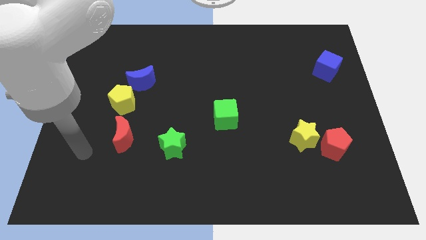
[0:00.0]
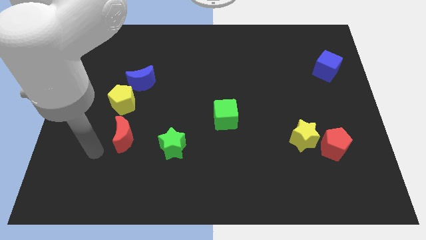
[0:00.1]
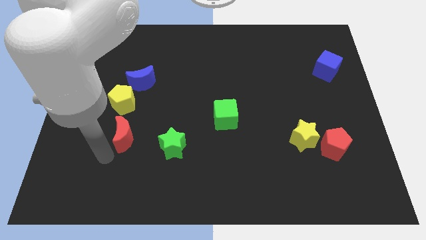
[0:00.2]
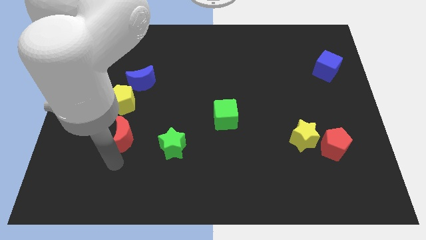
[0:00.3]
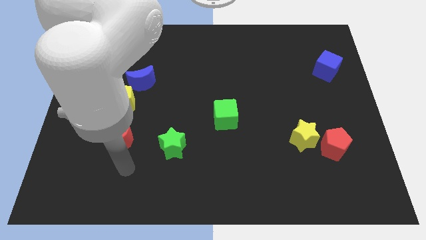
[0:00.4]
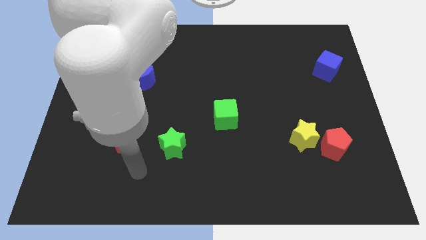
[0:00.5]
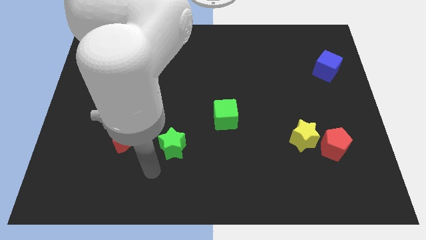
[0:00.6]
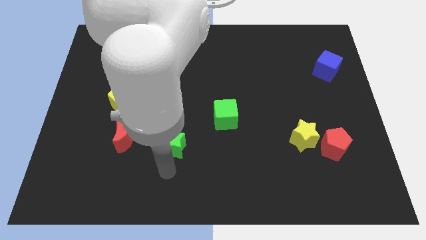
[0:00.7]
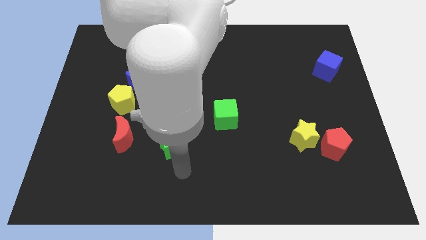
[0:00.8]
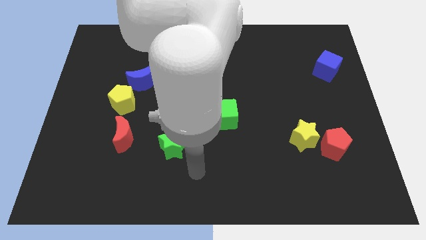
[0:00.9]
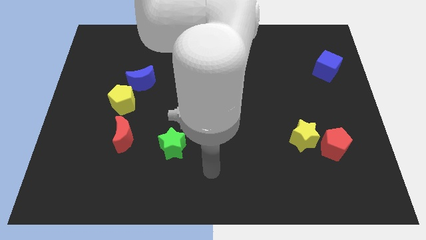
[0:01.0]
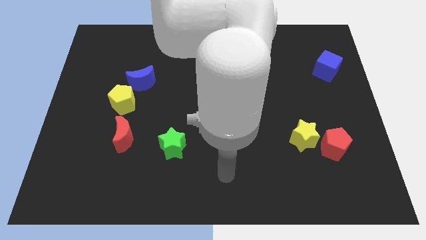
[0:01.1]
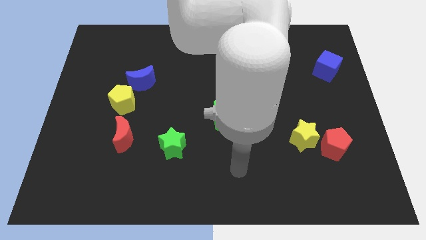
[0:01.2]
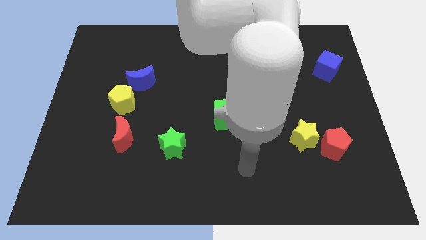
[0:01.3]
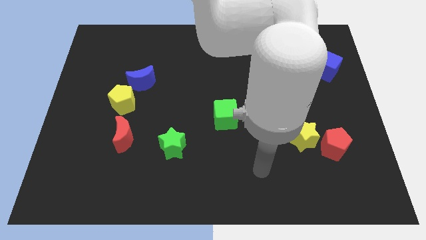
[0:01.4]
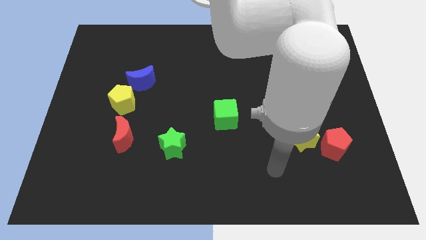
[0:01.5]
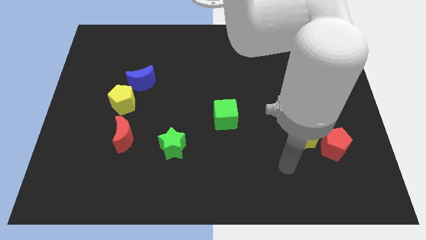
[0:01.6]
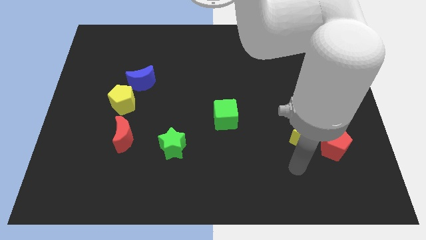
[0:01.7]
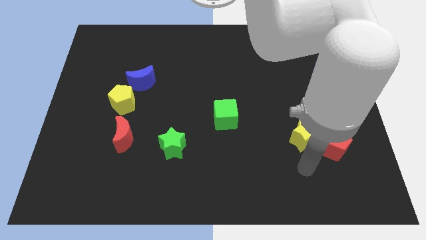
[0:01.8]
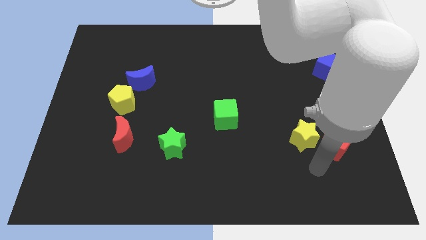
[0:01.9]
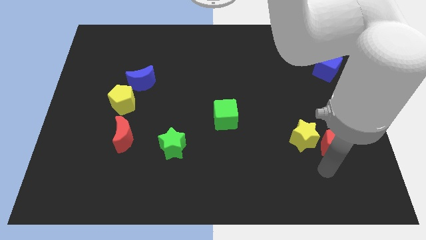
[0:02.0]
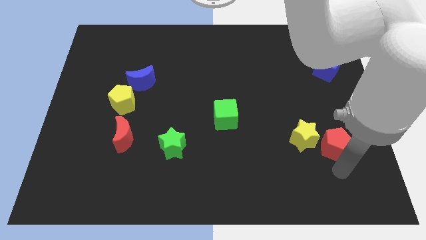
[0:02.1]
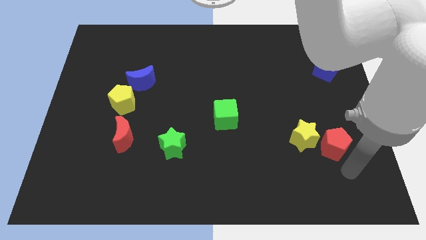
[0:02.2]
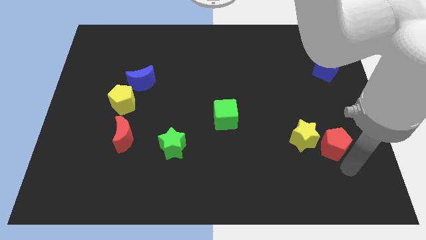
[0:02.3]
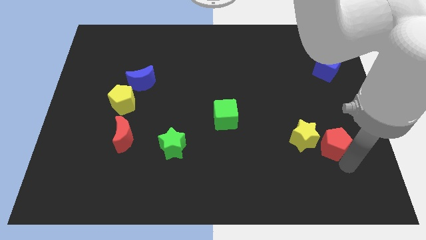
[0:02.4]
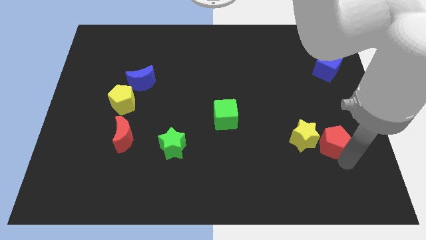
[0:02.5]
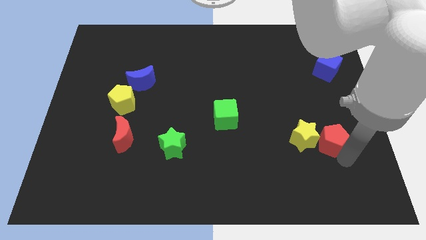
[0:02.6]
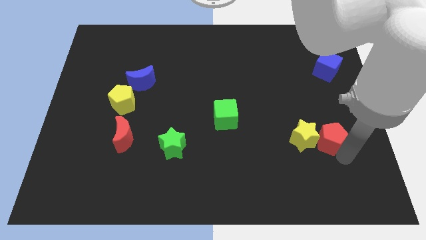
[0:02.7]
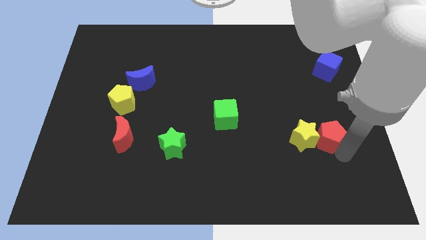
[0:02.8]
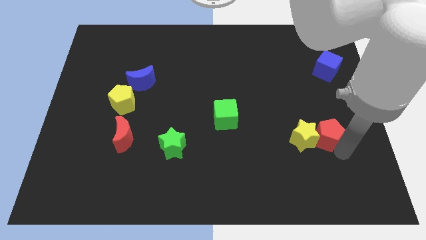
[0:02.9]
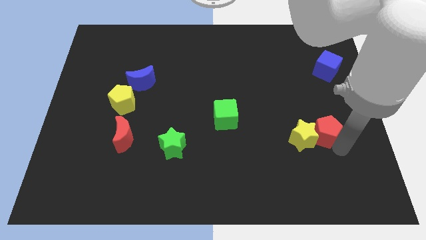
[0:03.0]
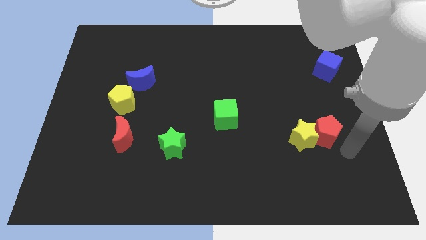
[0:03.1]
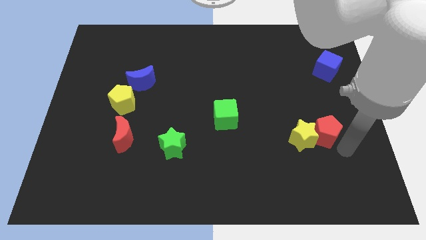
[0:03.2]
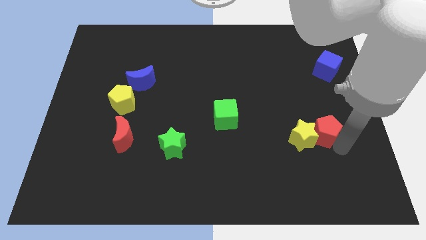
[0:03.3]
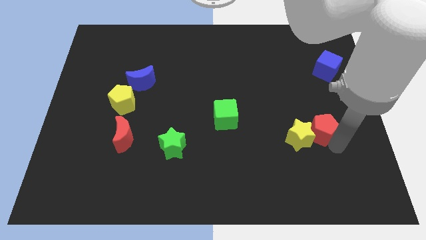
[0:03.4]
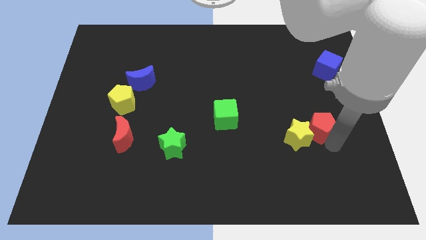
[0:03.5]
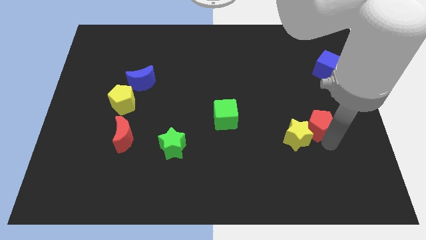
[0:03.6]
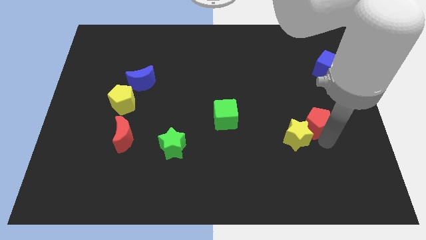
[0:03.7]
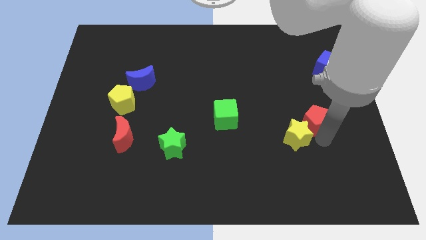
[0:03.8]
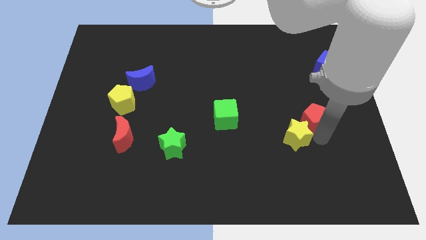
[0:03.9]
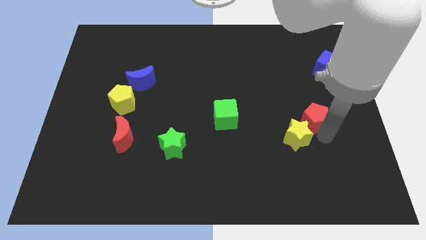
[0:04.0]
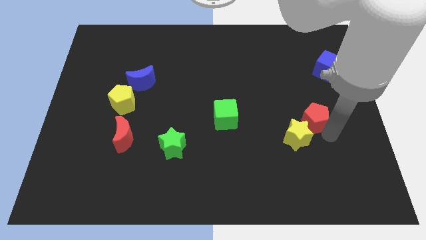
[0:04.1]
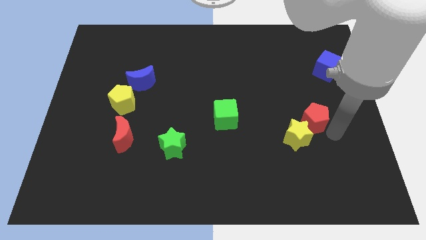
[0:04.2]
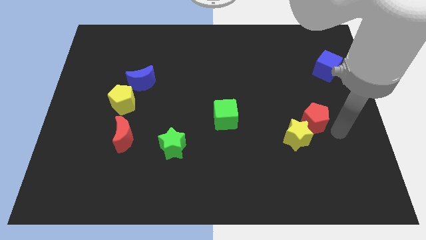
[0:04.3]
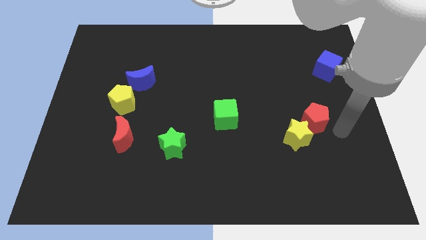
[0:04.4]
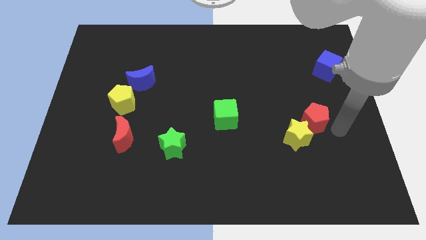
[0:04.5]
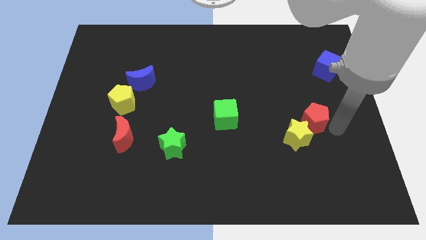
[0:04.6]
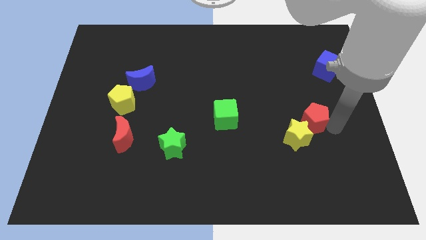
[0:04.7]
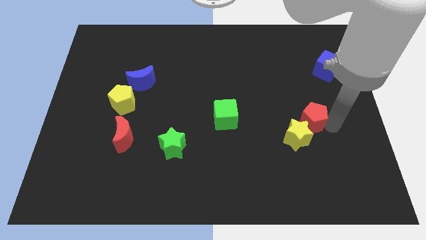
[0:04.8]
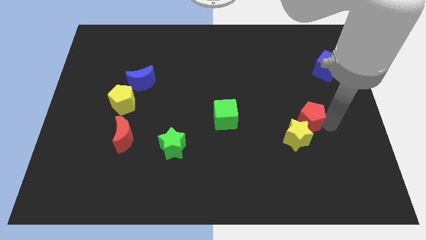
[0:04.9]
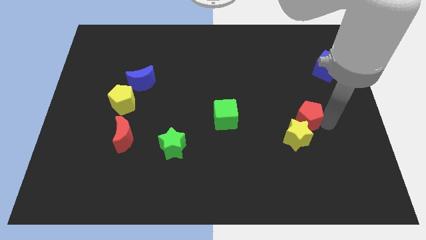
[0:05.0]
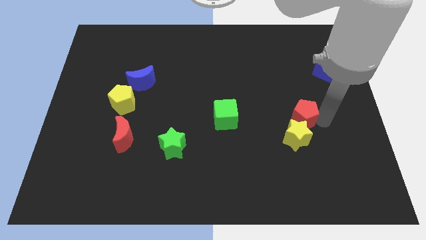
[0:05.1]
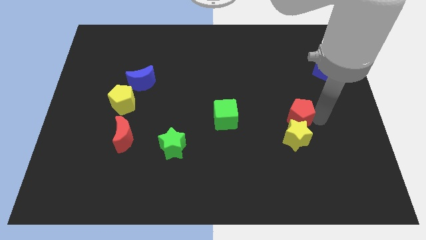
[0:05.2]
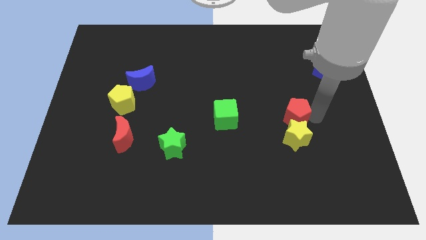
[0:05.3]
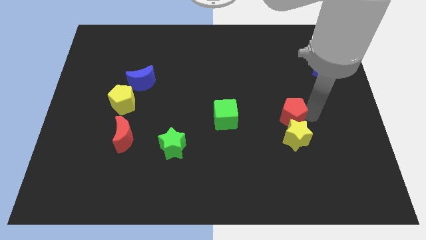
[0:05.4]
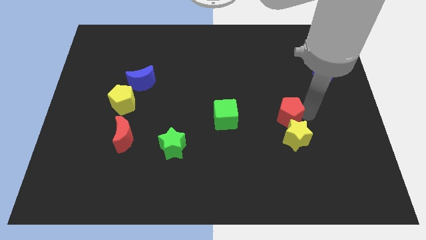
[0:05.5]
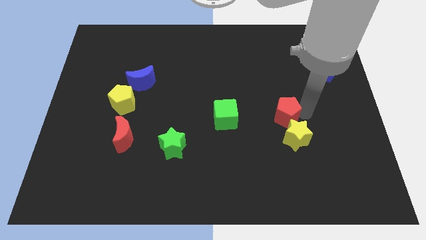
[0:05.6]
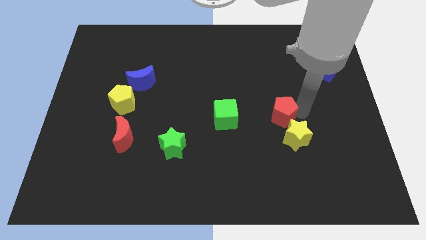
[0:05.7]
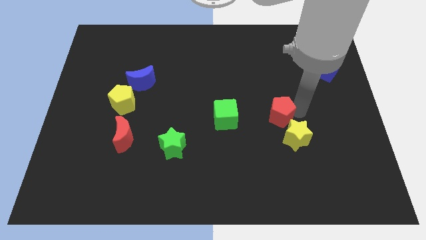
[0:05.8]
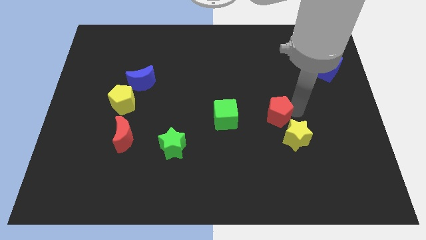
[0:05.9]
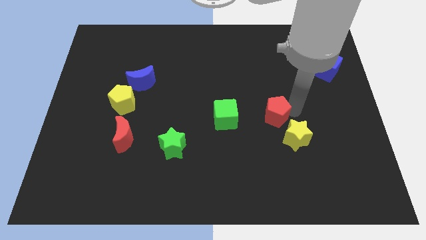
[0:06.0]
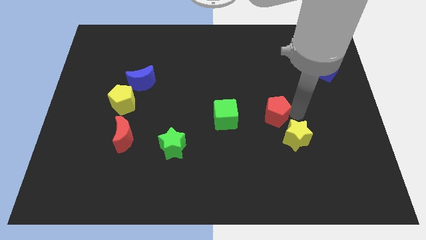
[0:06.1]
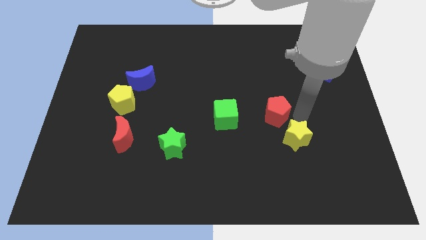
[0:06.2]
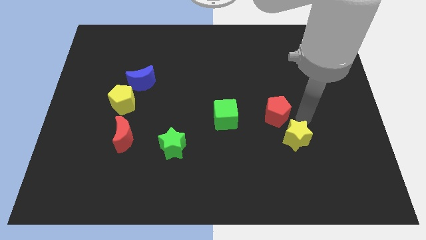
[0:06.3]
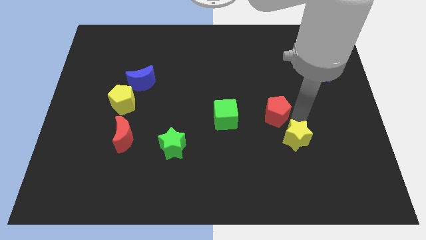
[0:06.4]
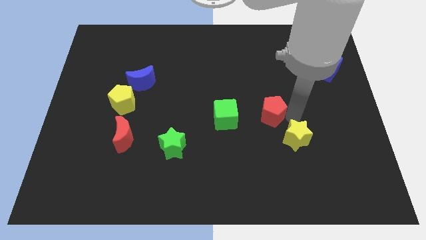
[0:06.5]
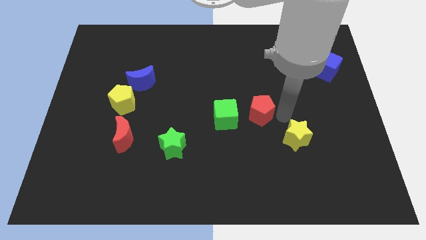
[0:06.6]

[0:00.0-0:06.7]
put the red pentagon to the center

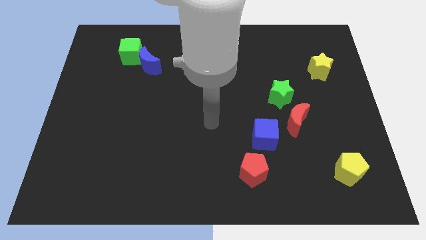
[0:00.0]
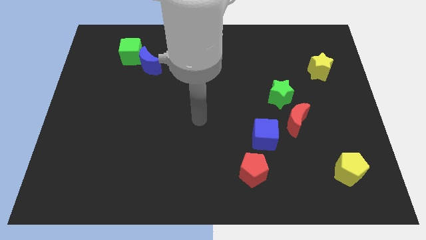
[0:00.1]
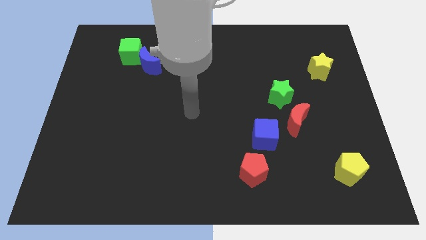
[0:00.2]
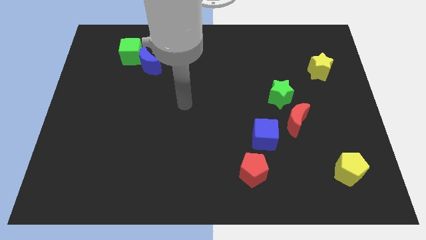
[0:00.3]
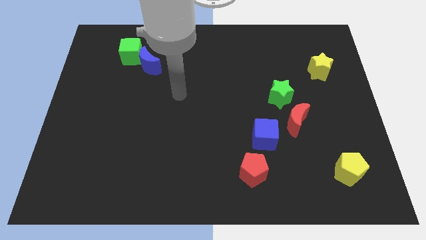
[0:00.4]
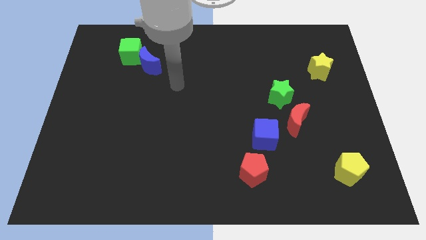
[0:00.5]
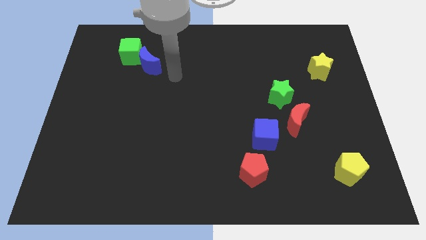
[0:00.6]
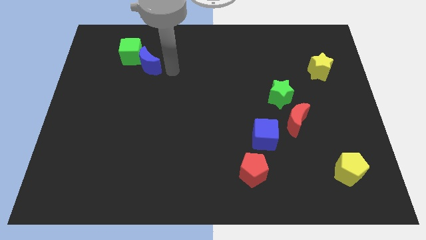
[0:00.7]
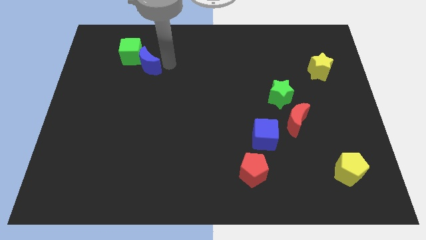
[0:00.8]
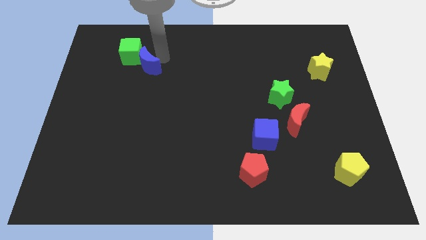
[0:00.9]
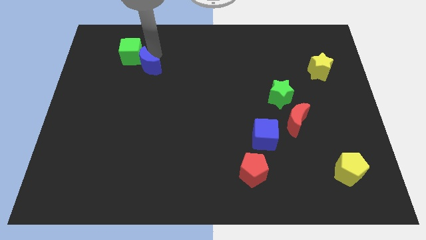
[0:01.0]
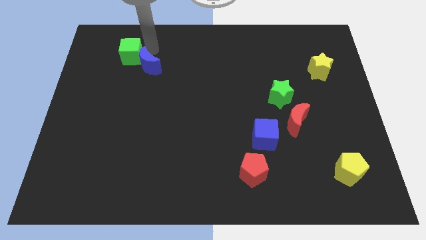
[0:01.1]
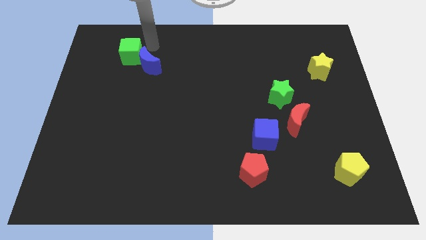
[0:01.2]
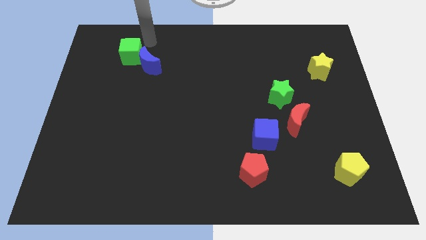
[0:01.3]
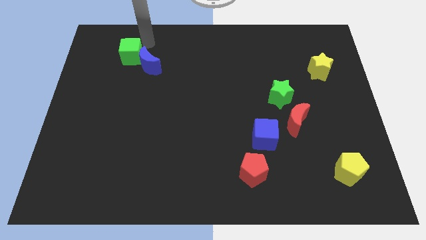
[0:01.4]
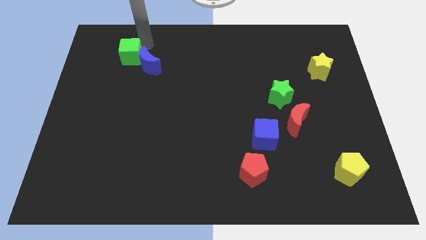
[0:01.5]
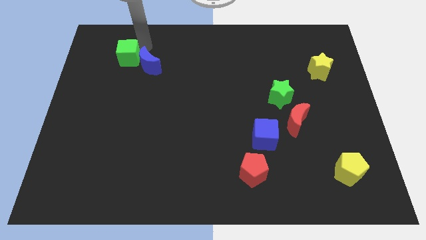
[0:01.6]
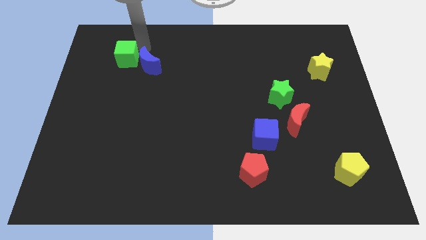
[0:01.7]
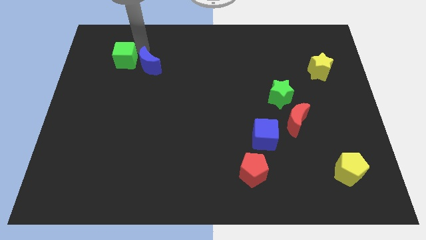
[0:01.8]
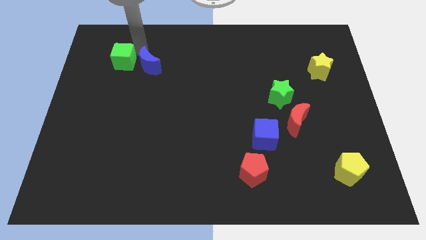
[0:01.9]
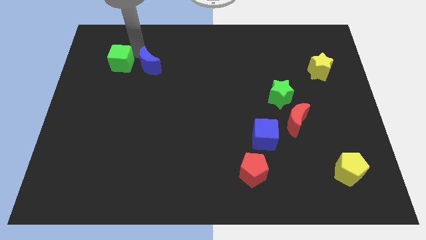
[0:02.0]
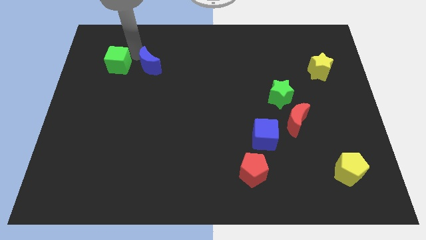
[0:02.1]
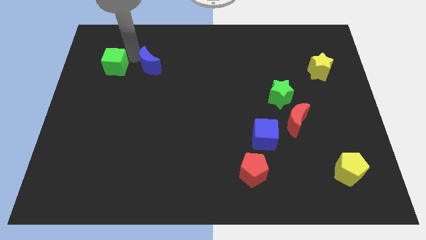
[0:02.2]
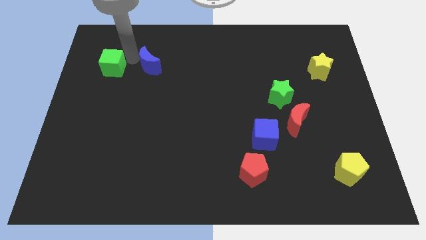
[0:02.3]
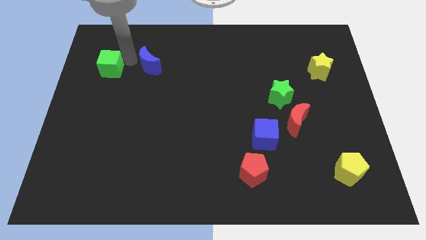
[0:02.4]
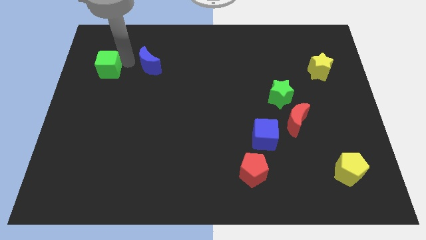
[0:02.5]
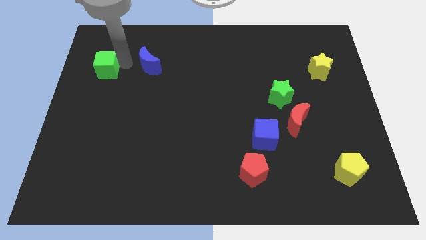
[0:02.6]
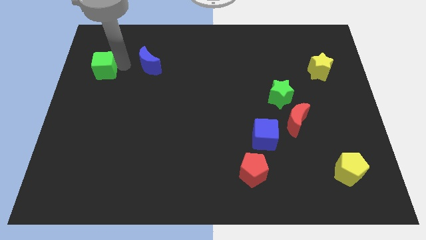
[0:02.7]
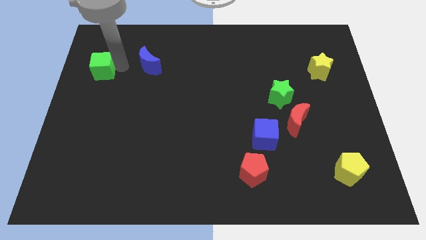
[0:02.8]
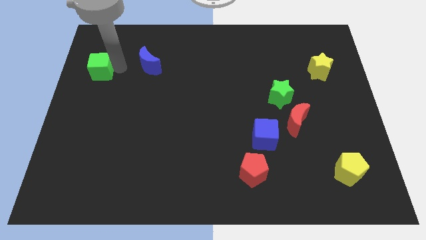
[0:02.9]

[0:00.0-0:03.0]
push the green cube to the left side
